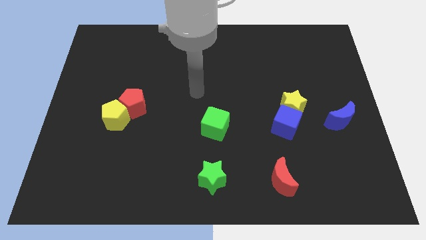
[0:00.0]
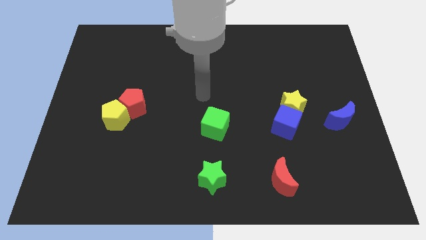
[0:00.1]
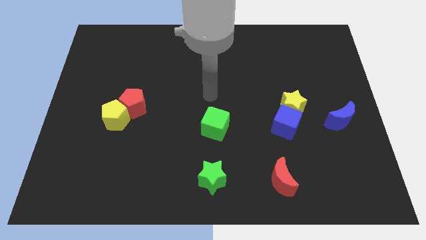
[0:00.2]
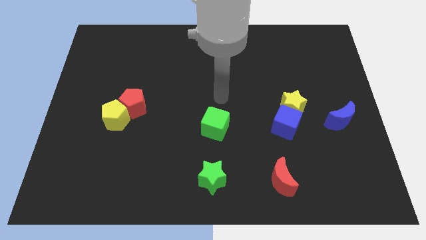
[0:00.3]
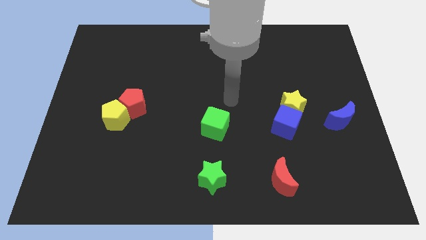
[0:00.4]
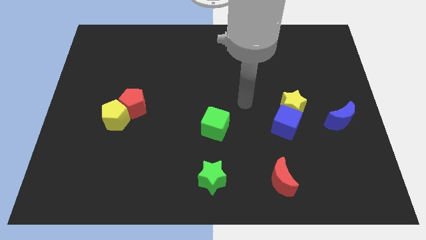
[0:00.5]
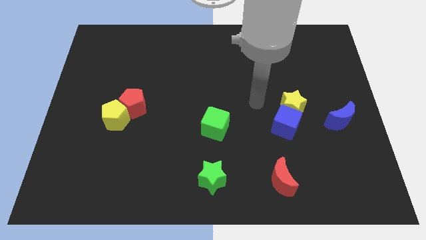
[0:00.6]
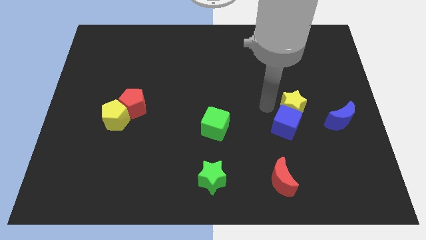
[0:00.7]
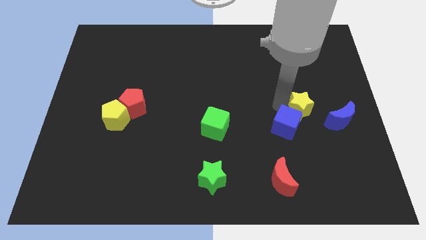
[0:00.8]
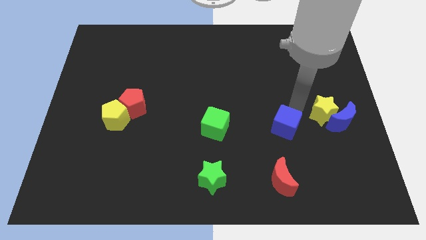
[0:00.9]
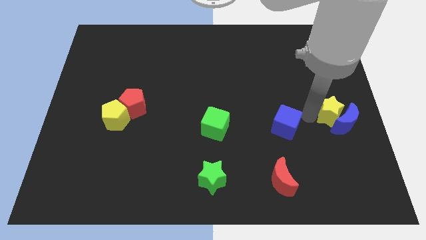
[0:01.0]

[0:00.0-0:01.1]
move the blue cube away from the yellow star

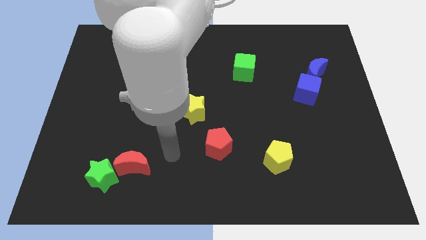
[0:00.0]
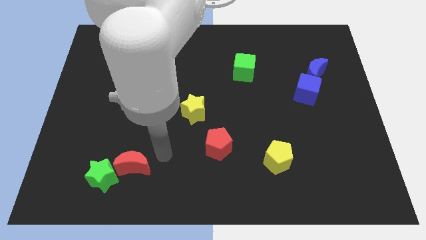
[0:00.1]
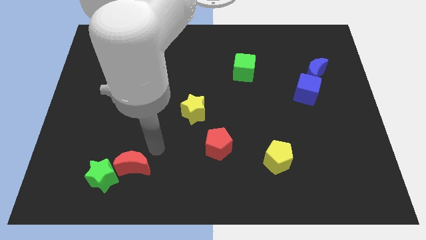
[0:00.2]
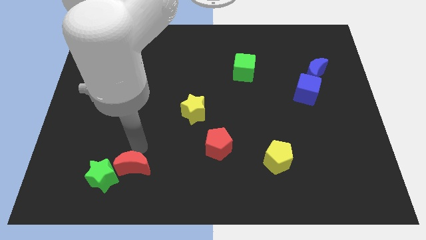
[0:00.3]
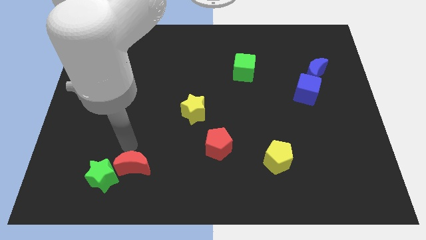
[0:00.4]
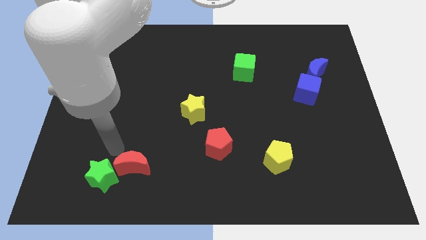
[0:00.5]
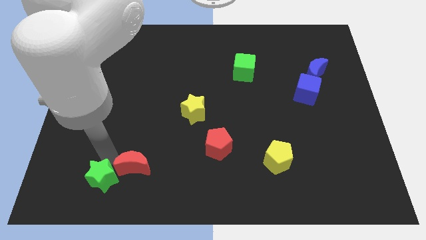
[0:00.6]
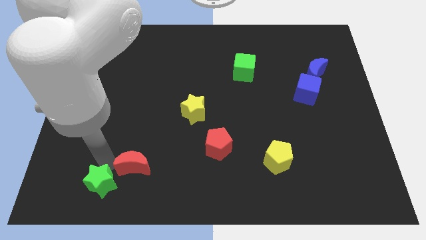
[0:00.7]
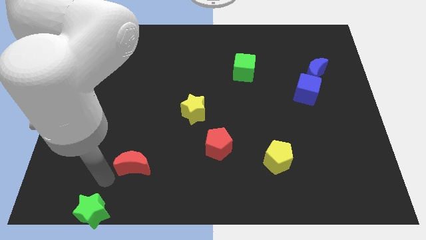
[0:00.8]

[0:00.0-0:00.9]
separate the red moon from the green star

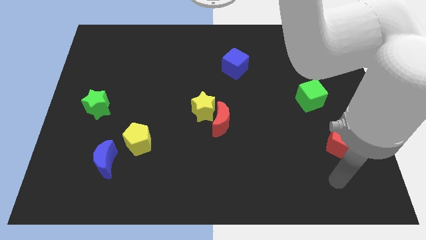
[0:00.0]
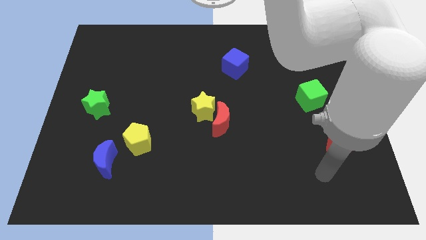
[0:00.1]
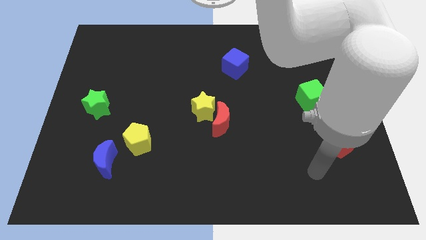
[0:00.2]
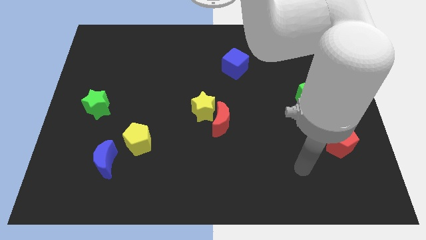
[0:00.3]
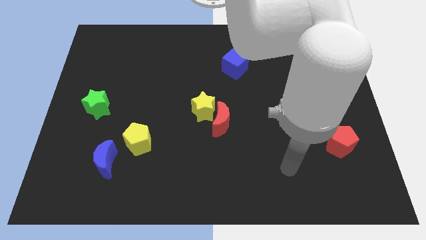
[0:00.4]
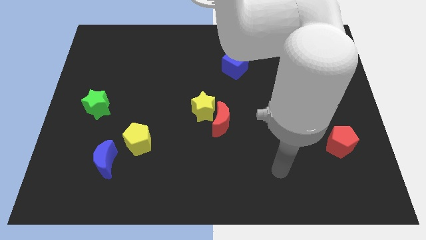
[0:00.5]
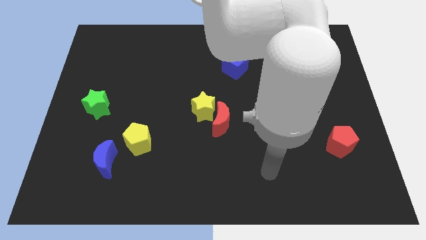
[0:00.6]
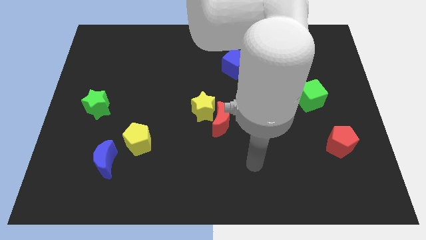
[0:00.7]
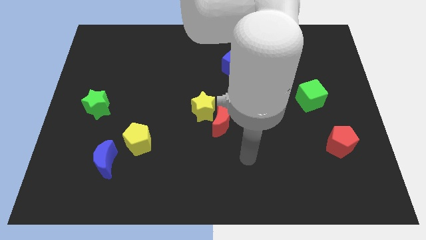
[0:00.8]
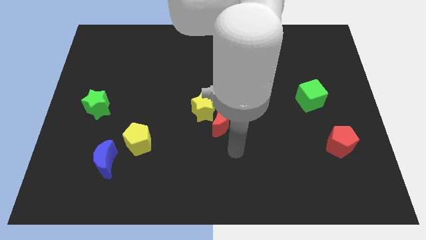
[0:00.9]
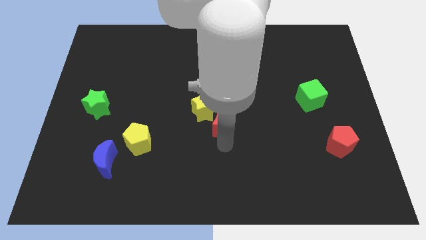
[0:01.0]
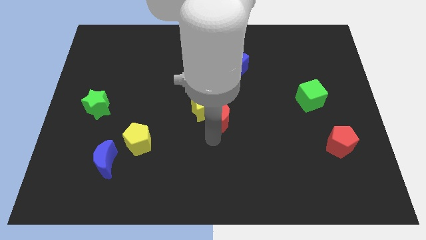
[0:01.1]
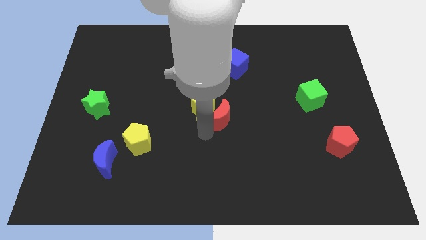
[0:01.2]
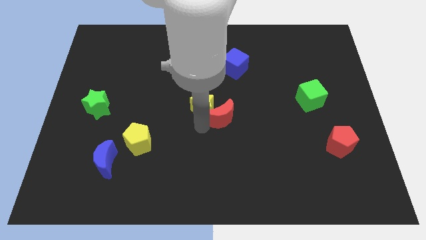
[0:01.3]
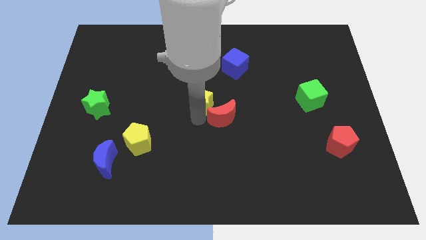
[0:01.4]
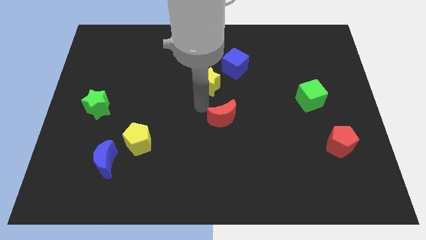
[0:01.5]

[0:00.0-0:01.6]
separate the red moon from the yellow star

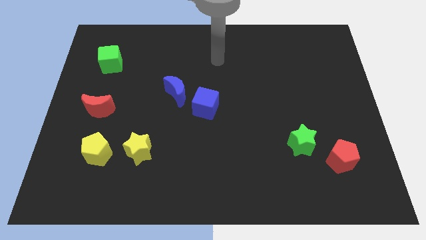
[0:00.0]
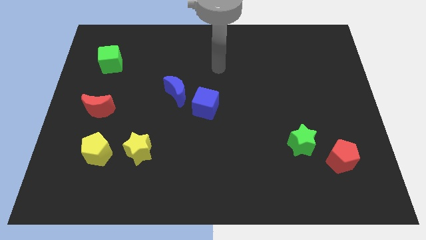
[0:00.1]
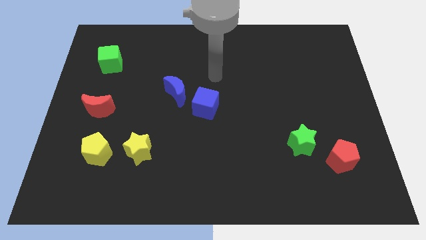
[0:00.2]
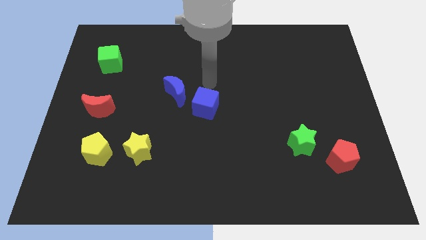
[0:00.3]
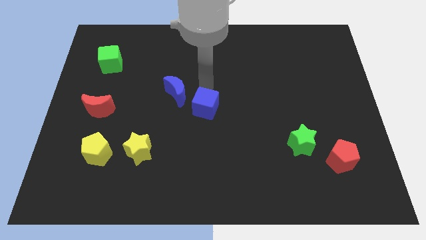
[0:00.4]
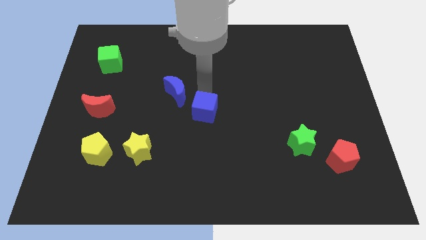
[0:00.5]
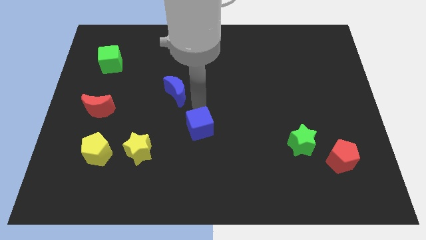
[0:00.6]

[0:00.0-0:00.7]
separate the blue moon from the blue cube

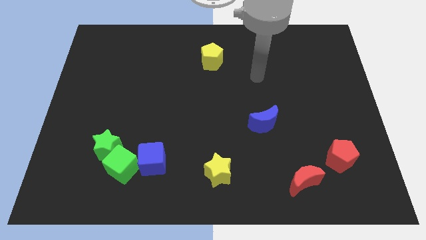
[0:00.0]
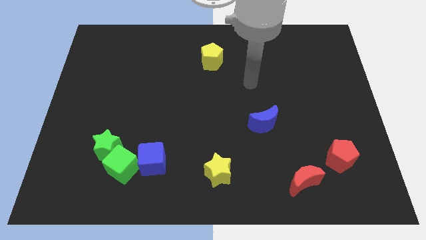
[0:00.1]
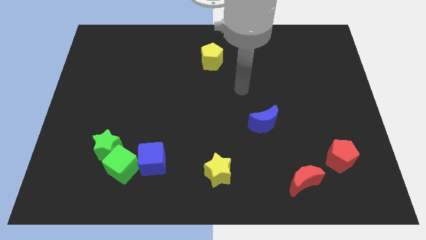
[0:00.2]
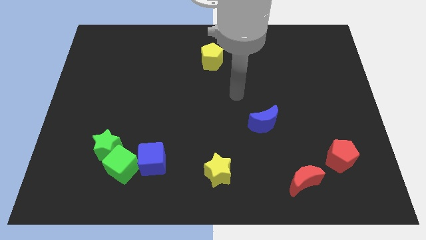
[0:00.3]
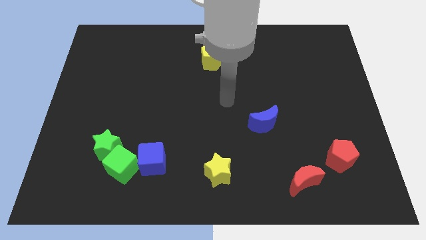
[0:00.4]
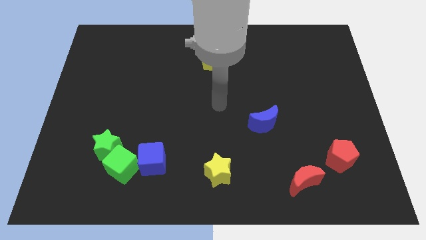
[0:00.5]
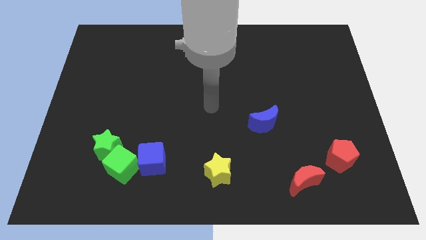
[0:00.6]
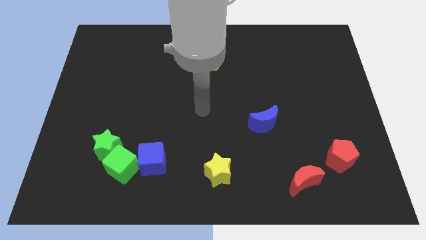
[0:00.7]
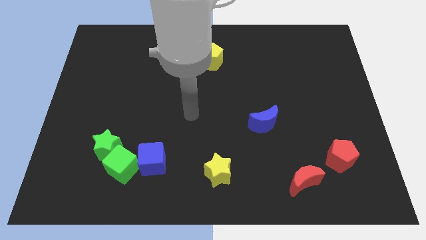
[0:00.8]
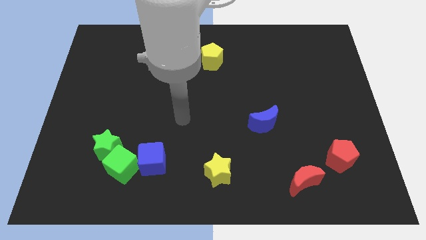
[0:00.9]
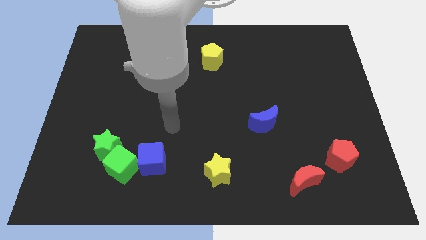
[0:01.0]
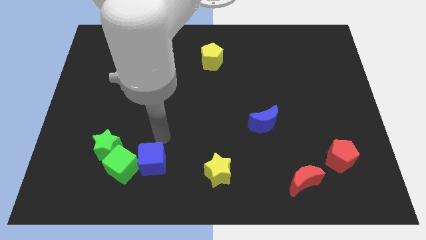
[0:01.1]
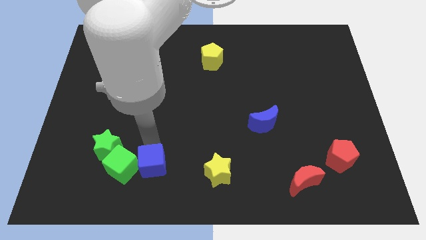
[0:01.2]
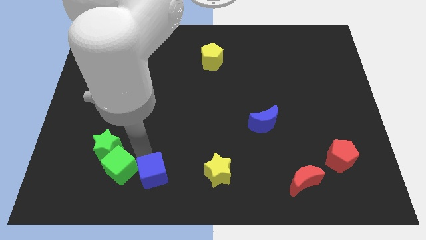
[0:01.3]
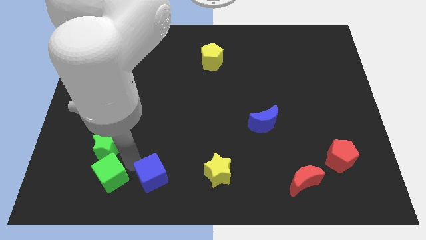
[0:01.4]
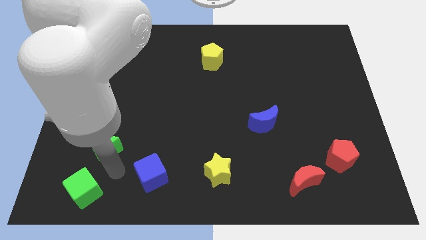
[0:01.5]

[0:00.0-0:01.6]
pull the green star apart from the green cube

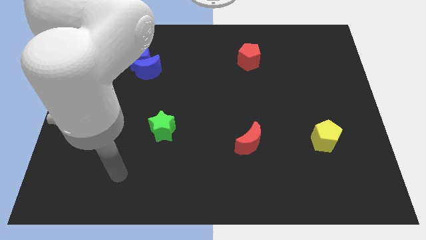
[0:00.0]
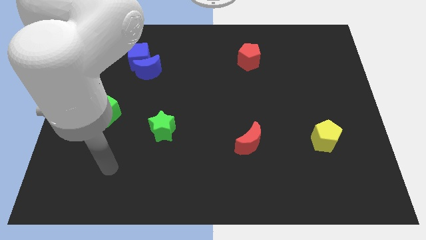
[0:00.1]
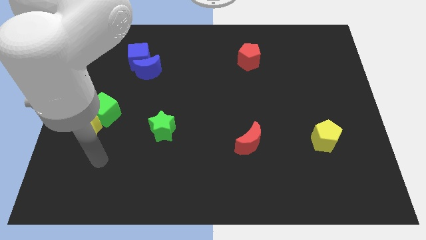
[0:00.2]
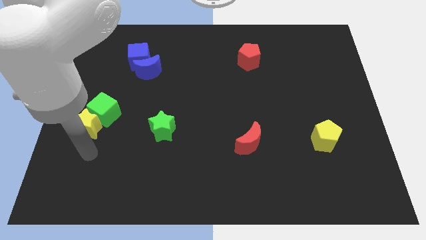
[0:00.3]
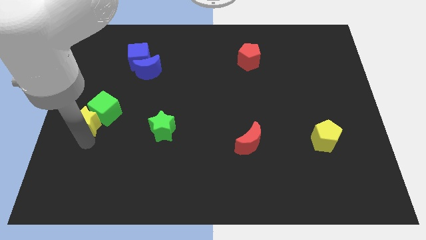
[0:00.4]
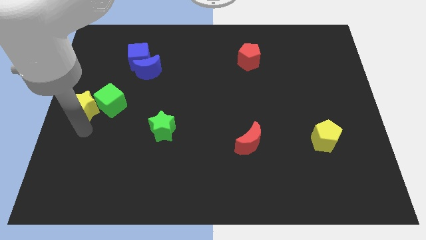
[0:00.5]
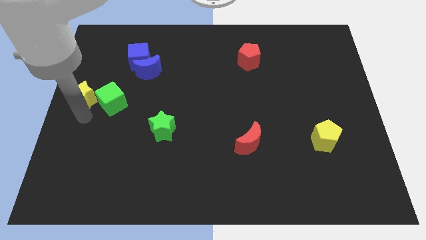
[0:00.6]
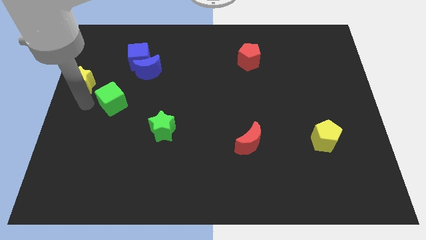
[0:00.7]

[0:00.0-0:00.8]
pull the green cube apart from the yellow star

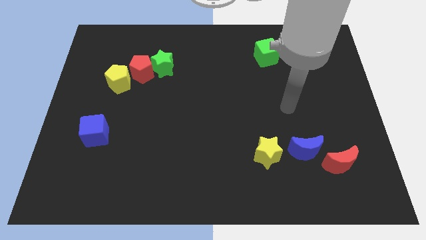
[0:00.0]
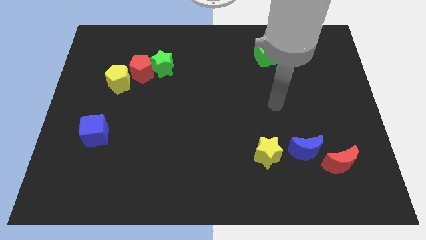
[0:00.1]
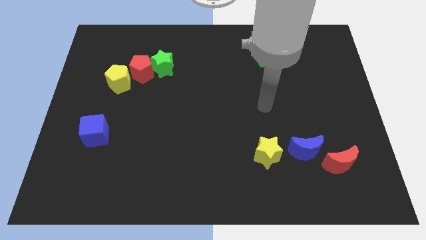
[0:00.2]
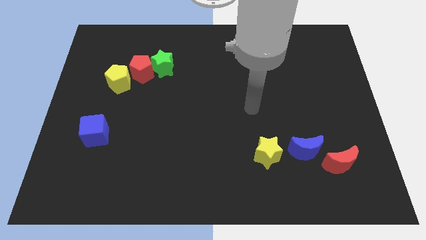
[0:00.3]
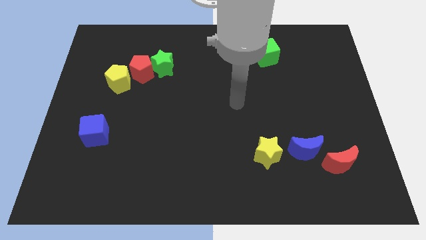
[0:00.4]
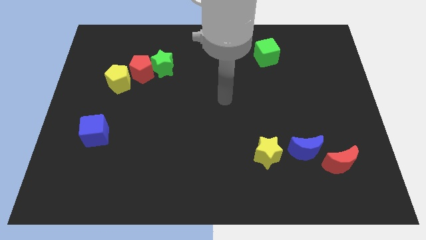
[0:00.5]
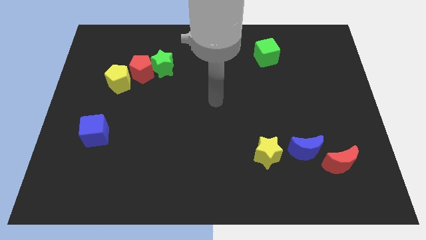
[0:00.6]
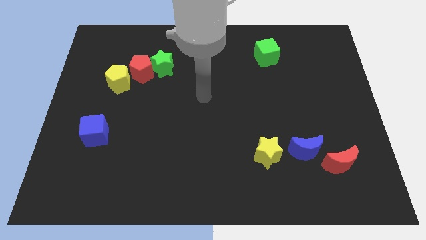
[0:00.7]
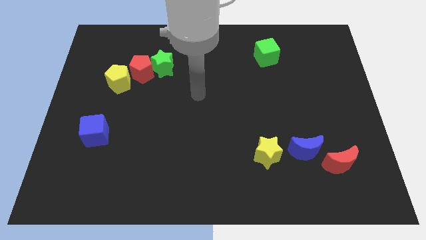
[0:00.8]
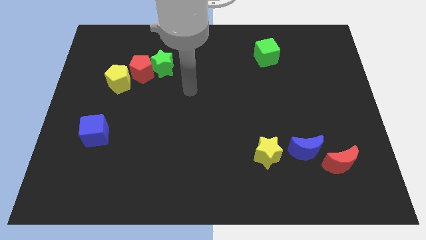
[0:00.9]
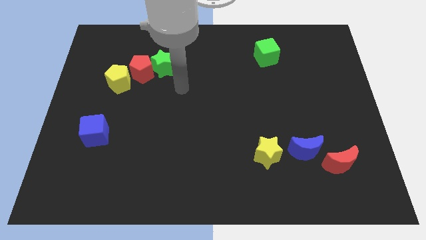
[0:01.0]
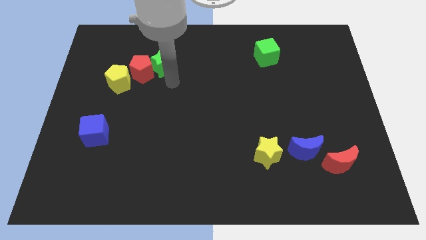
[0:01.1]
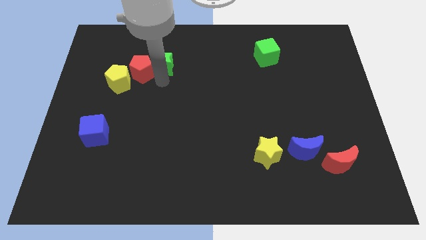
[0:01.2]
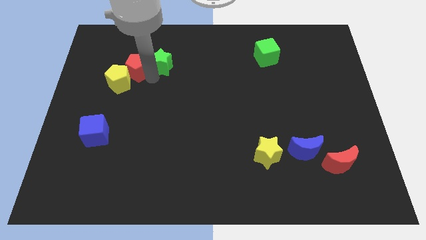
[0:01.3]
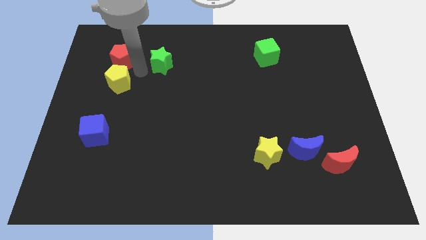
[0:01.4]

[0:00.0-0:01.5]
separate the green star from the red pentagon

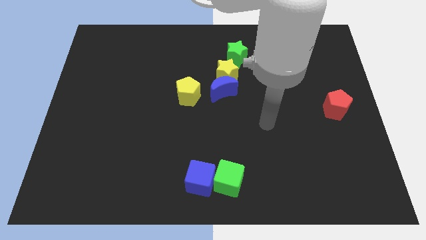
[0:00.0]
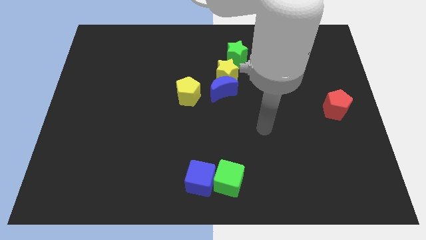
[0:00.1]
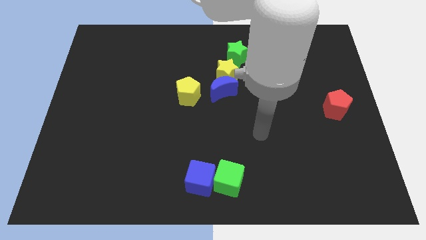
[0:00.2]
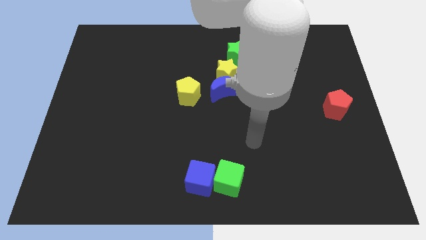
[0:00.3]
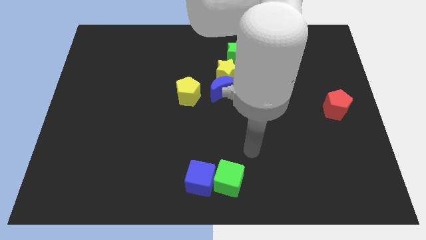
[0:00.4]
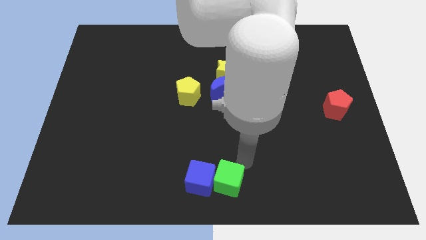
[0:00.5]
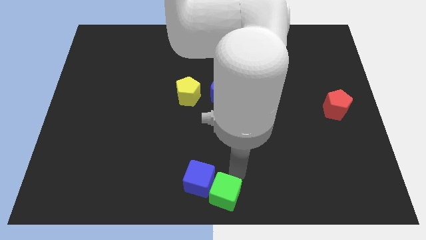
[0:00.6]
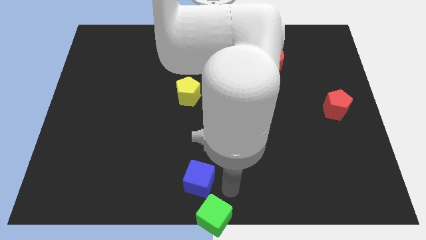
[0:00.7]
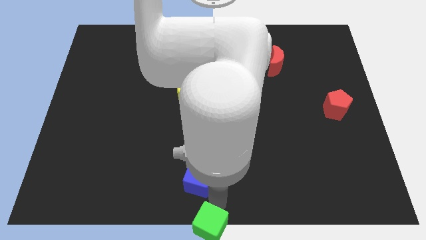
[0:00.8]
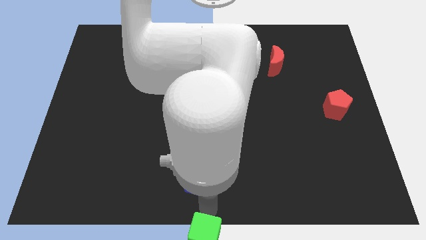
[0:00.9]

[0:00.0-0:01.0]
separate the blue cube from the green cube

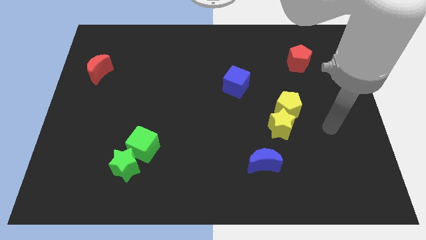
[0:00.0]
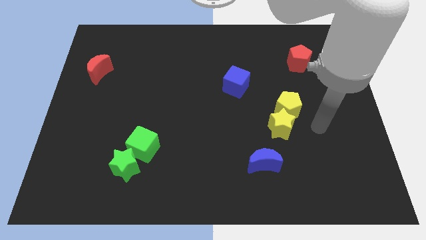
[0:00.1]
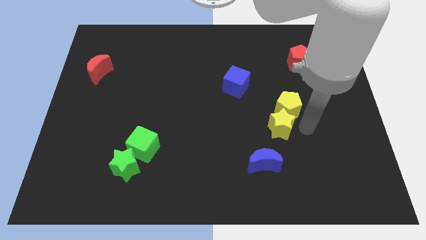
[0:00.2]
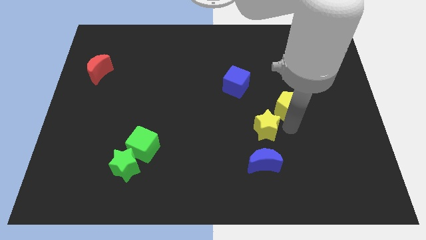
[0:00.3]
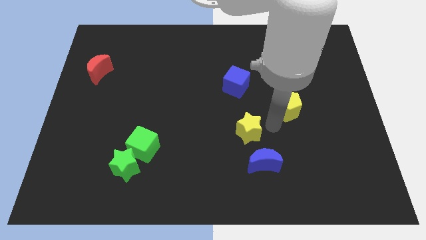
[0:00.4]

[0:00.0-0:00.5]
move the yellow pentagon away from the yellow star
